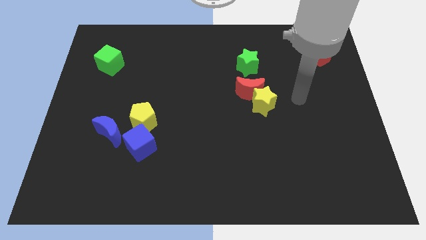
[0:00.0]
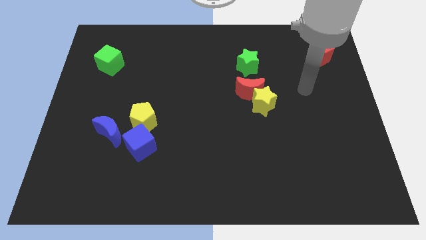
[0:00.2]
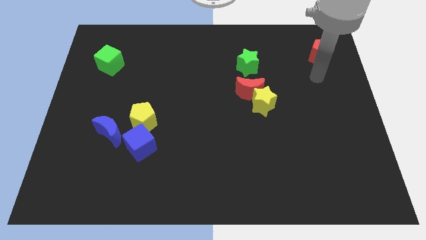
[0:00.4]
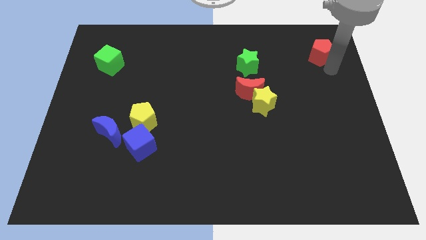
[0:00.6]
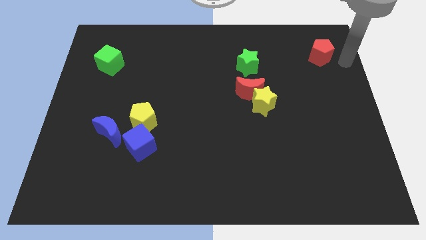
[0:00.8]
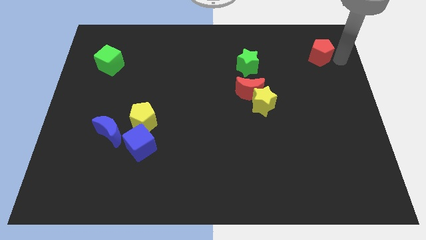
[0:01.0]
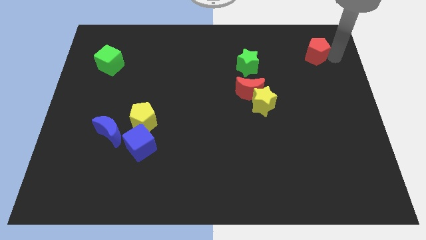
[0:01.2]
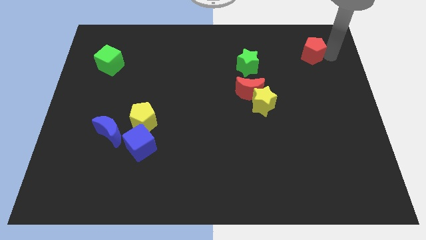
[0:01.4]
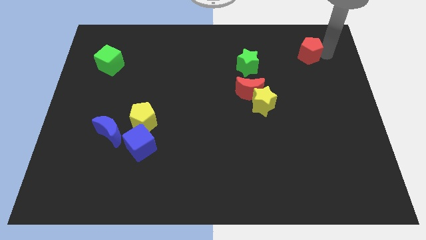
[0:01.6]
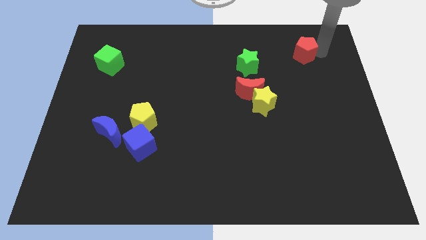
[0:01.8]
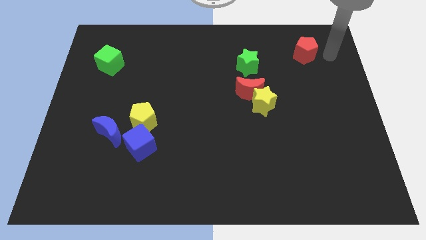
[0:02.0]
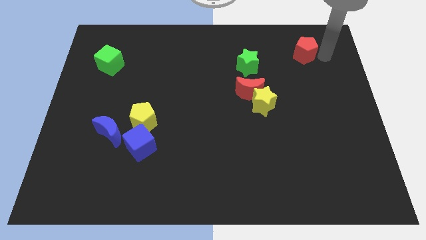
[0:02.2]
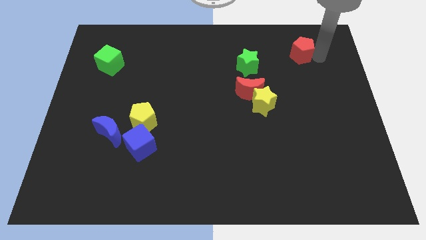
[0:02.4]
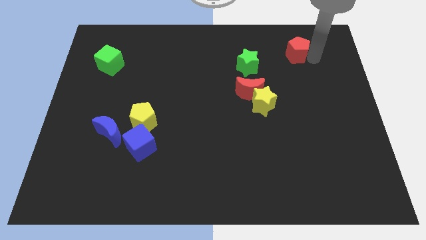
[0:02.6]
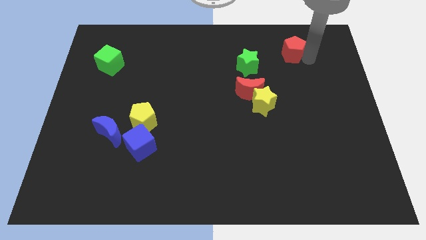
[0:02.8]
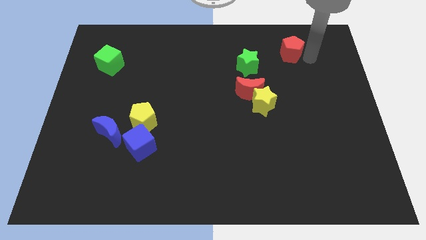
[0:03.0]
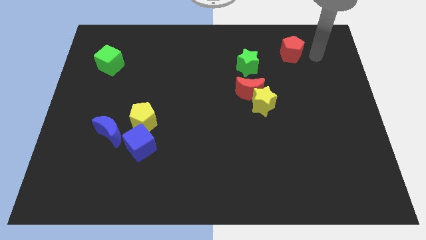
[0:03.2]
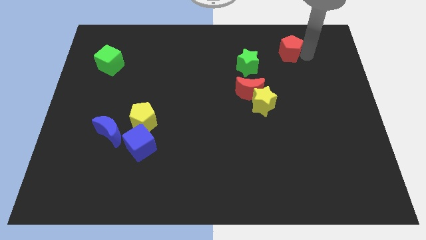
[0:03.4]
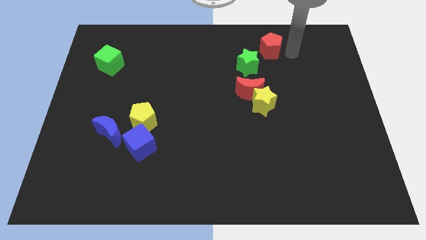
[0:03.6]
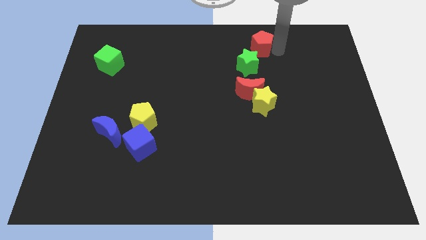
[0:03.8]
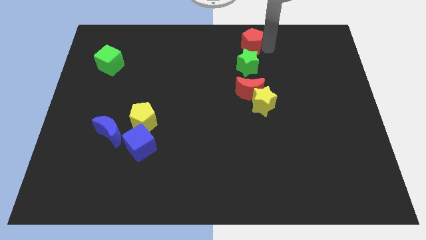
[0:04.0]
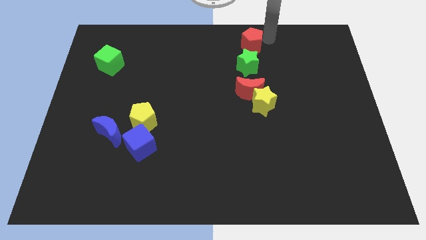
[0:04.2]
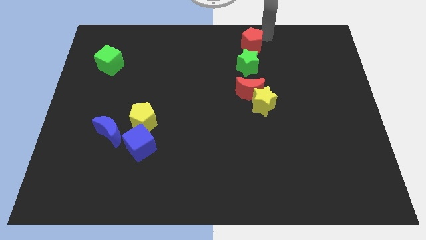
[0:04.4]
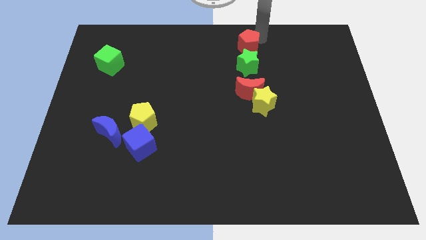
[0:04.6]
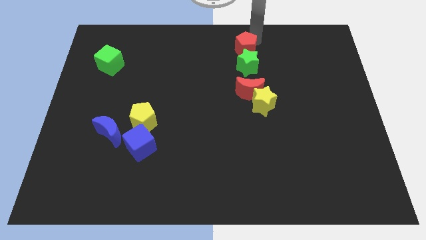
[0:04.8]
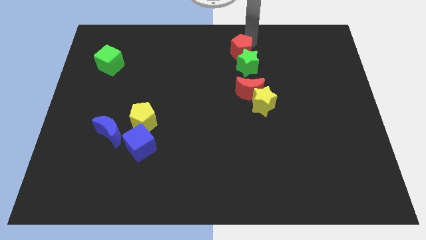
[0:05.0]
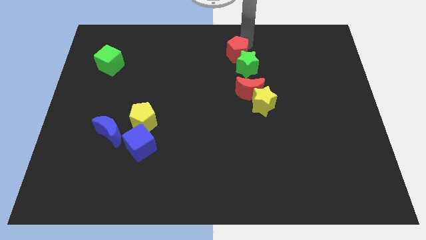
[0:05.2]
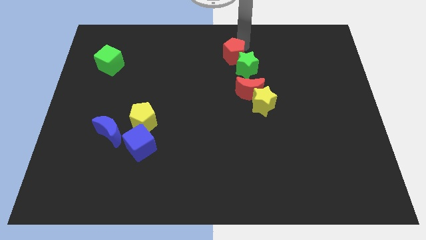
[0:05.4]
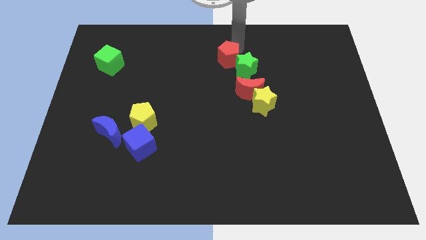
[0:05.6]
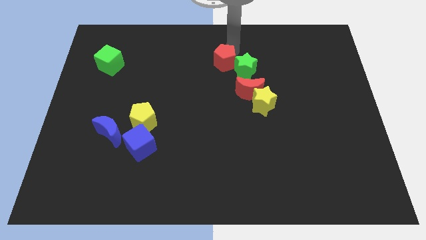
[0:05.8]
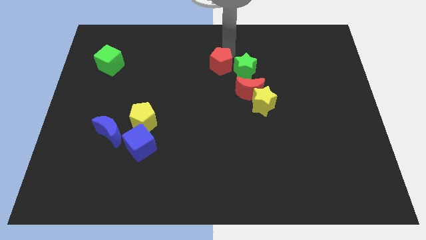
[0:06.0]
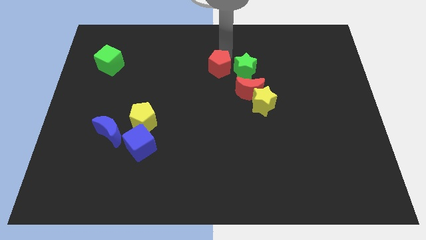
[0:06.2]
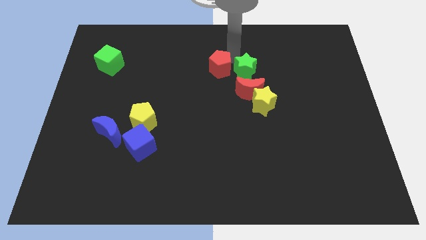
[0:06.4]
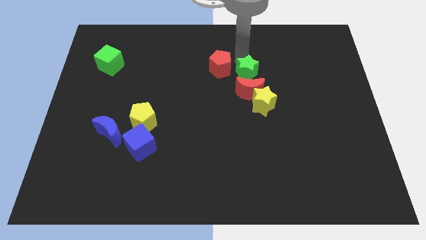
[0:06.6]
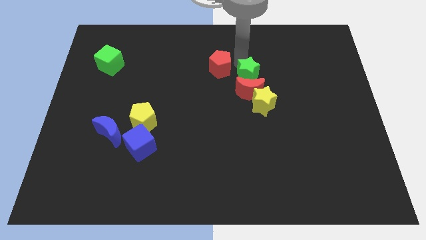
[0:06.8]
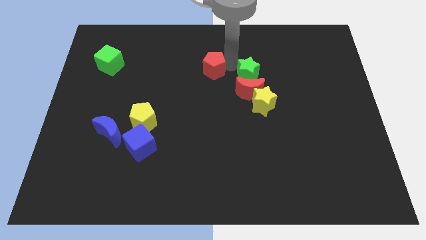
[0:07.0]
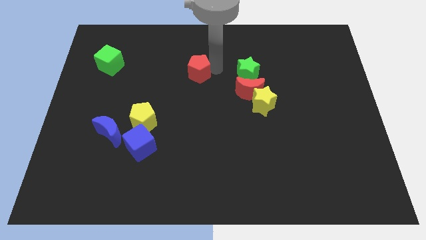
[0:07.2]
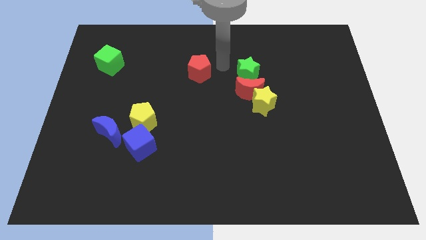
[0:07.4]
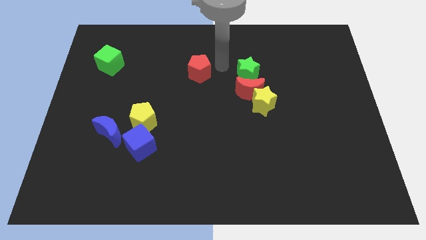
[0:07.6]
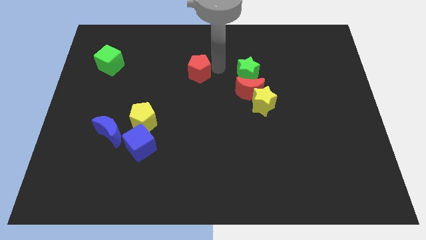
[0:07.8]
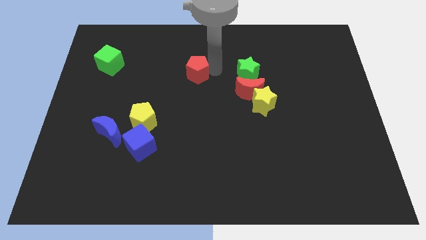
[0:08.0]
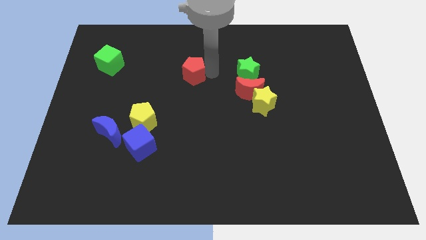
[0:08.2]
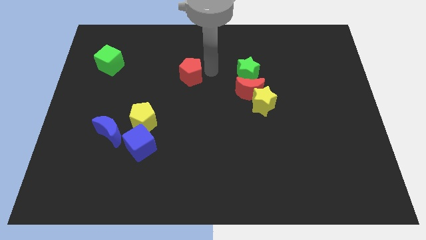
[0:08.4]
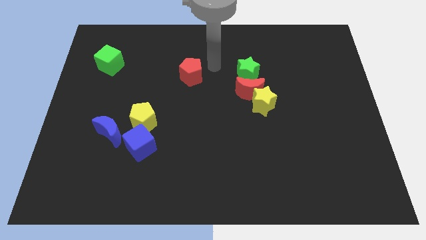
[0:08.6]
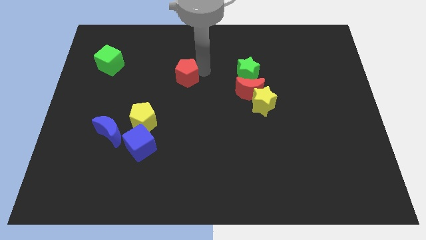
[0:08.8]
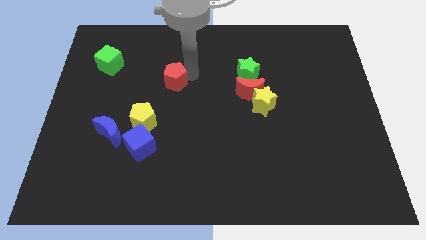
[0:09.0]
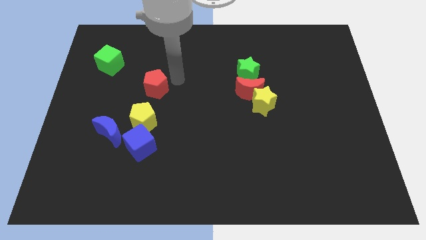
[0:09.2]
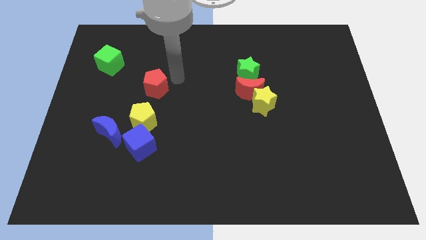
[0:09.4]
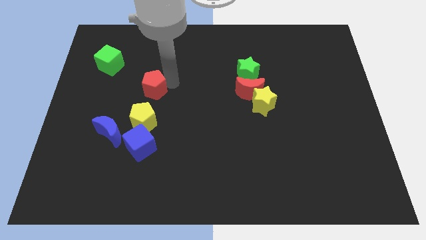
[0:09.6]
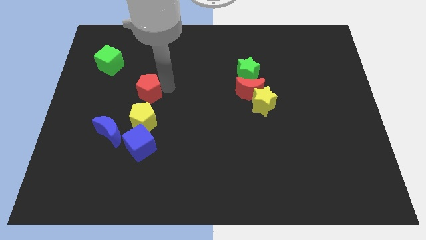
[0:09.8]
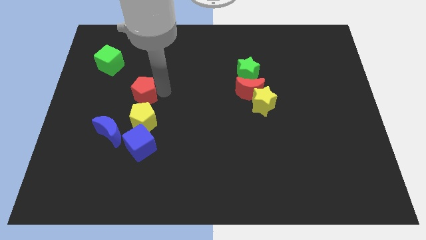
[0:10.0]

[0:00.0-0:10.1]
move the red pentagon to the top left of the yellow pentagon

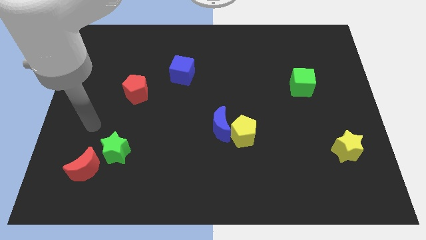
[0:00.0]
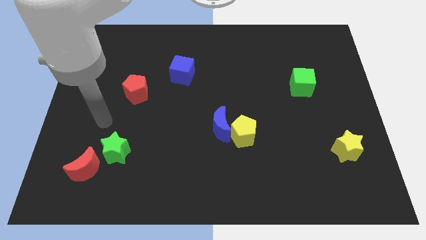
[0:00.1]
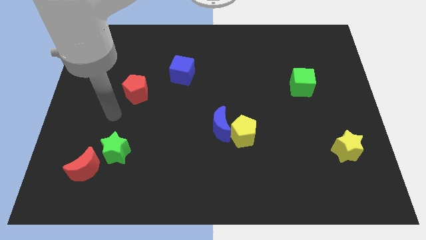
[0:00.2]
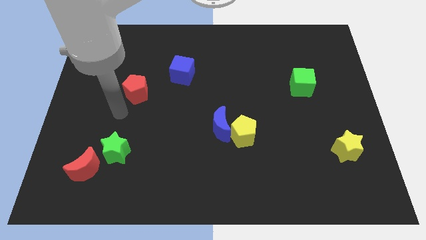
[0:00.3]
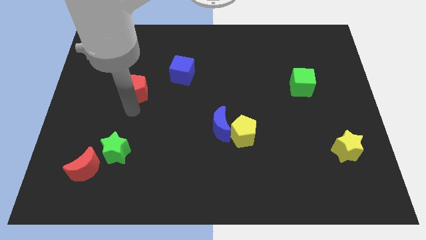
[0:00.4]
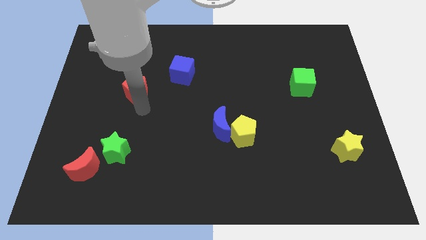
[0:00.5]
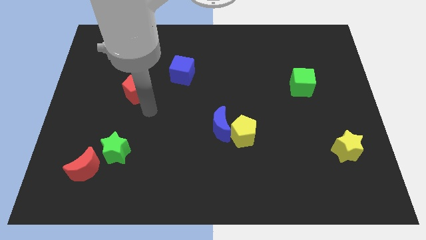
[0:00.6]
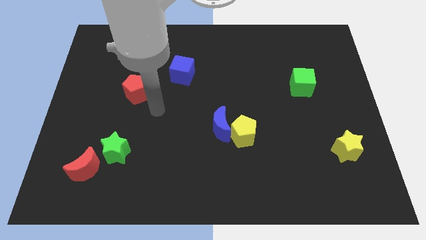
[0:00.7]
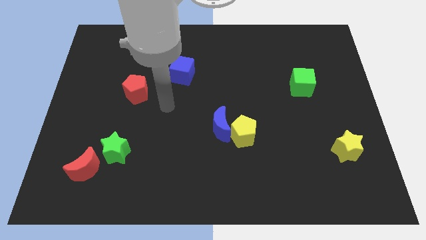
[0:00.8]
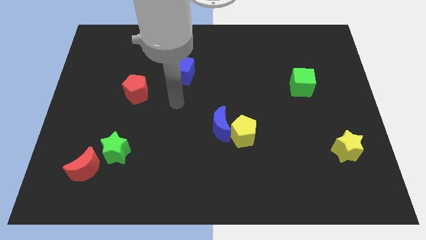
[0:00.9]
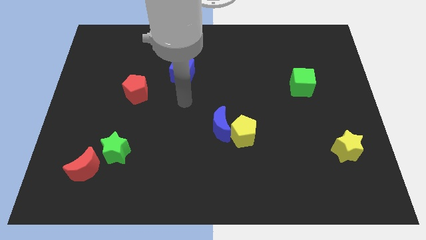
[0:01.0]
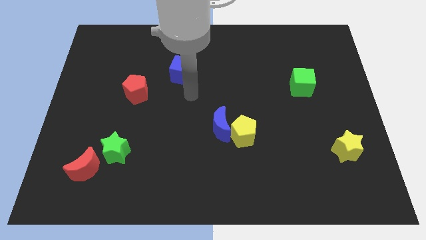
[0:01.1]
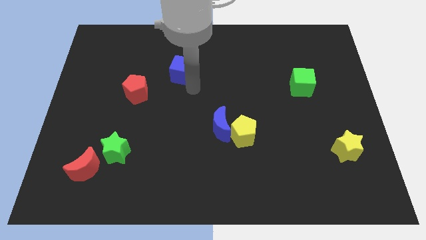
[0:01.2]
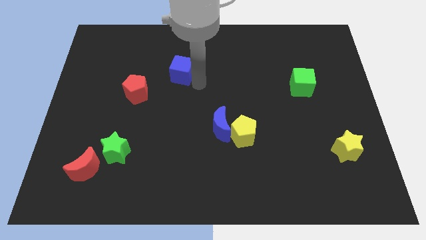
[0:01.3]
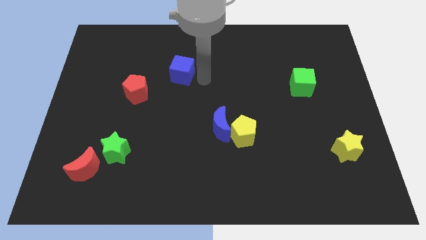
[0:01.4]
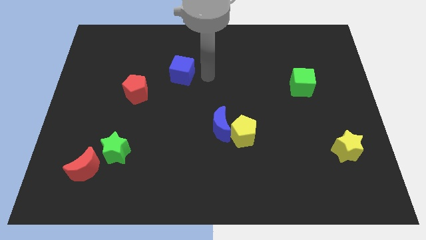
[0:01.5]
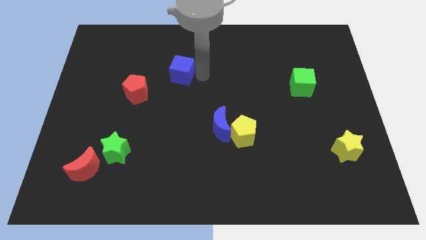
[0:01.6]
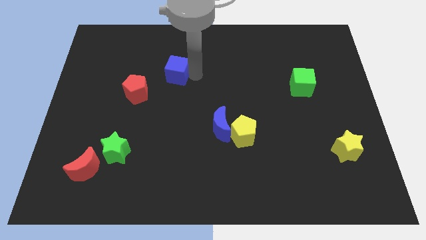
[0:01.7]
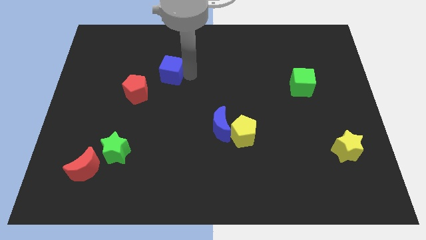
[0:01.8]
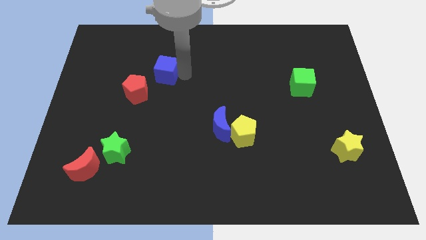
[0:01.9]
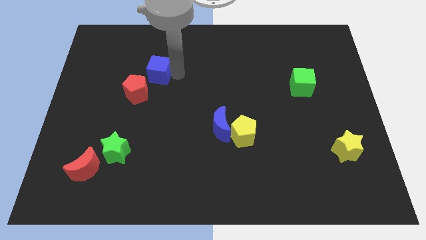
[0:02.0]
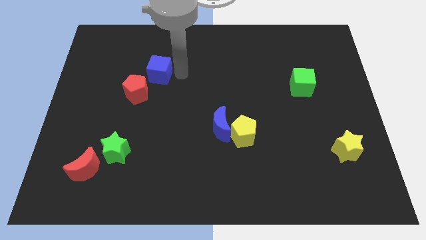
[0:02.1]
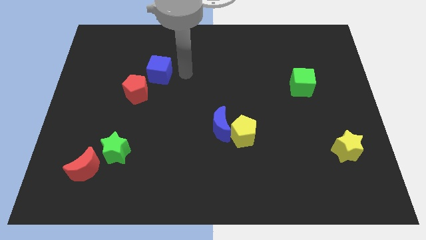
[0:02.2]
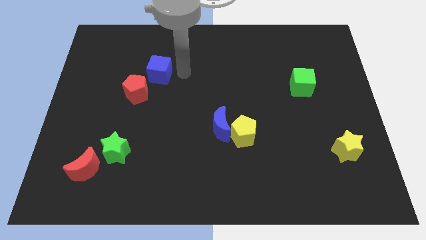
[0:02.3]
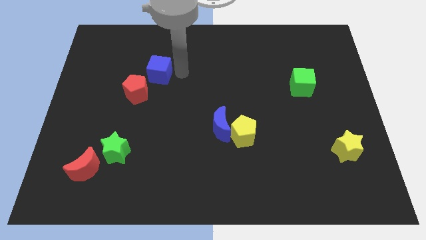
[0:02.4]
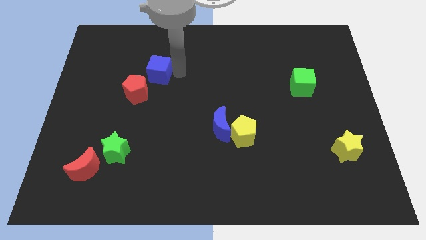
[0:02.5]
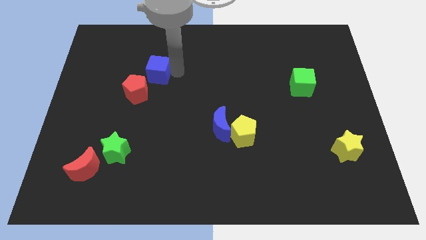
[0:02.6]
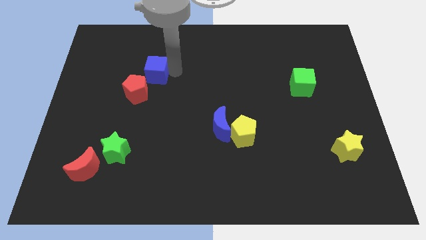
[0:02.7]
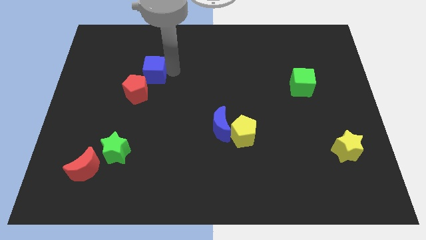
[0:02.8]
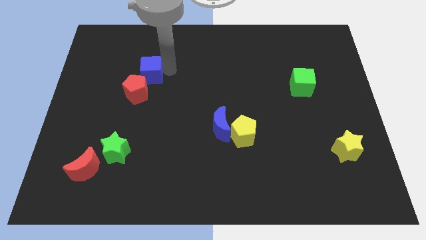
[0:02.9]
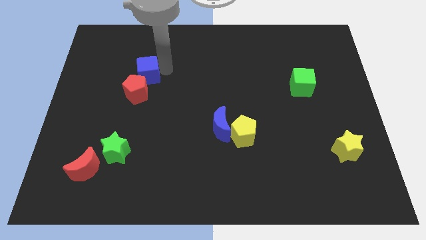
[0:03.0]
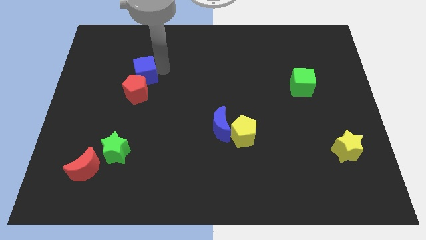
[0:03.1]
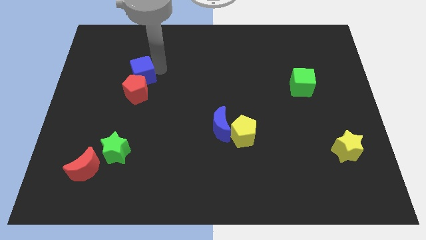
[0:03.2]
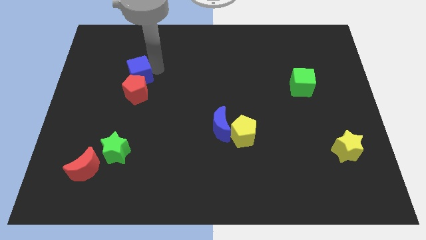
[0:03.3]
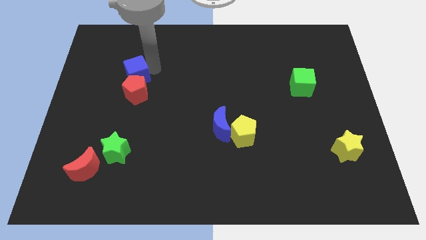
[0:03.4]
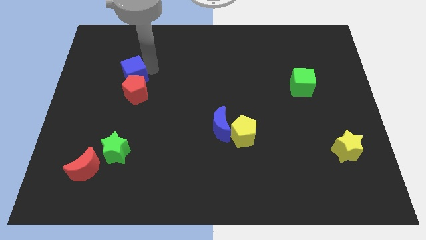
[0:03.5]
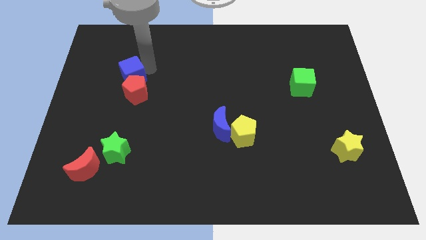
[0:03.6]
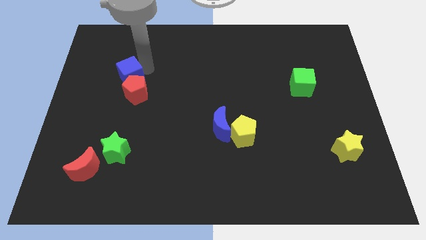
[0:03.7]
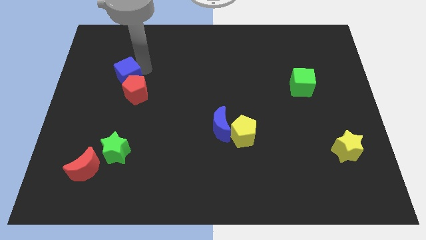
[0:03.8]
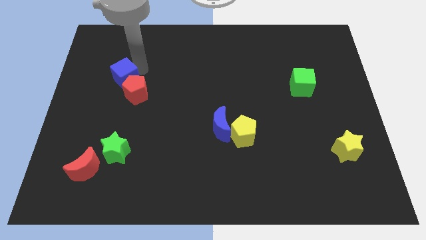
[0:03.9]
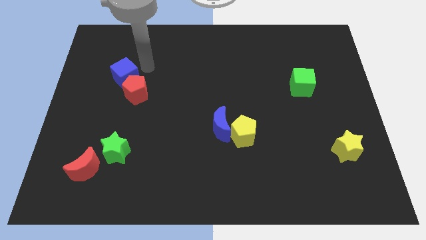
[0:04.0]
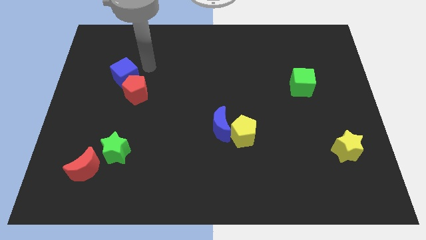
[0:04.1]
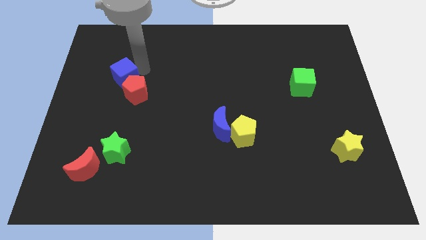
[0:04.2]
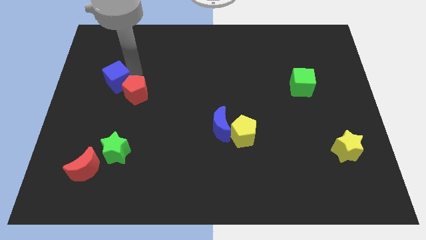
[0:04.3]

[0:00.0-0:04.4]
put the blue cube to the left side of the red pentagon
